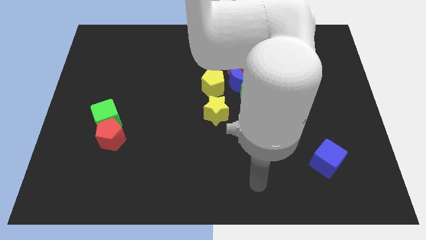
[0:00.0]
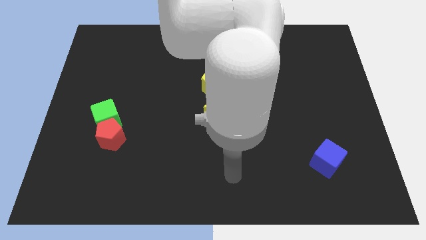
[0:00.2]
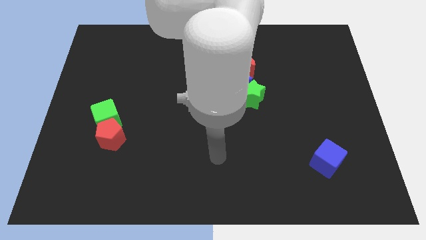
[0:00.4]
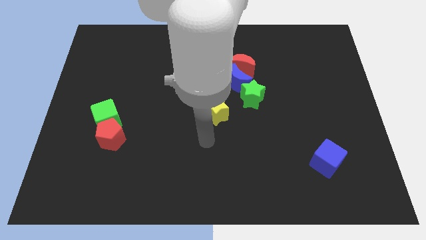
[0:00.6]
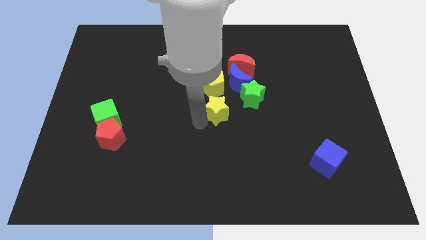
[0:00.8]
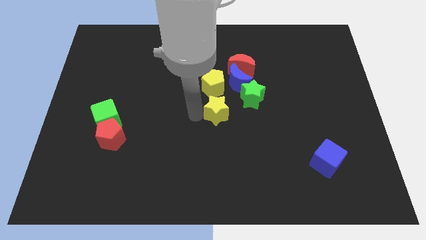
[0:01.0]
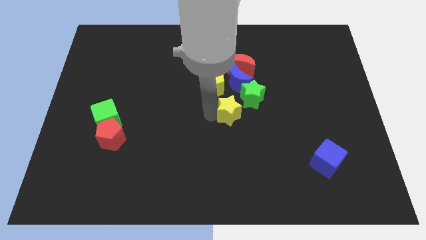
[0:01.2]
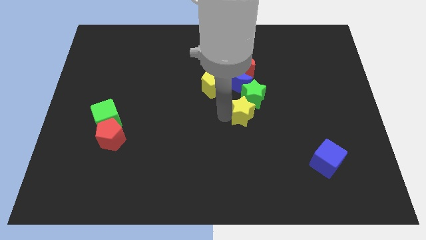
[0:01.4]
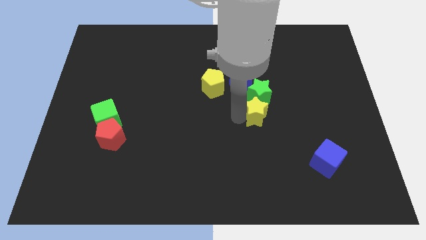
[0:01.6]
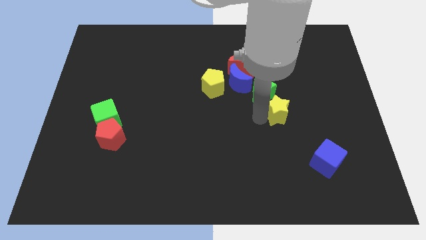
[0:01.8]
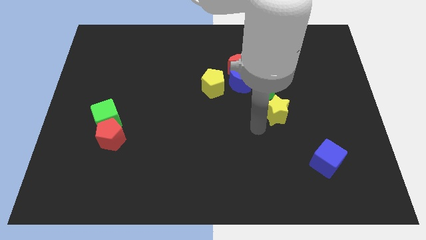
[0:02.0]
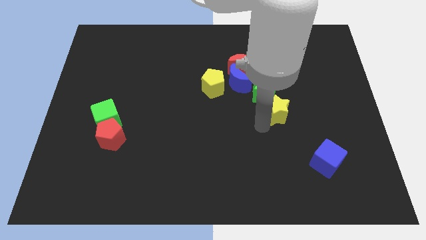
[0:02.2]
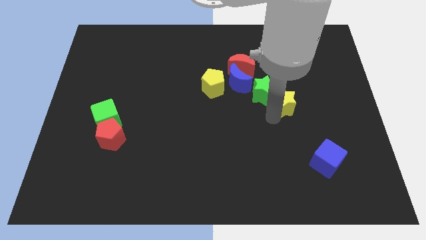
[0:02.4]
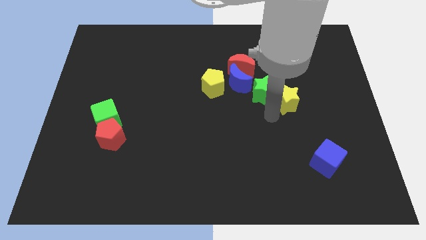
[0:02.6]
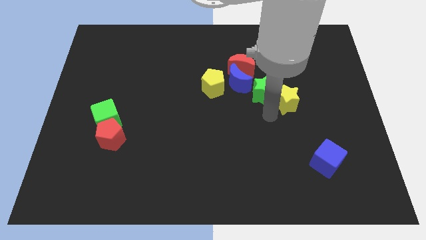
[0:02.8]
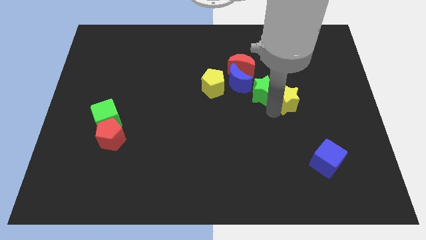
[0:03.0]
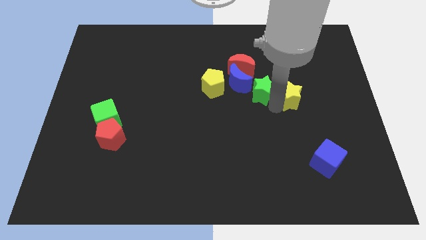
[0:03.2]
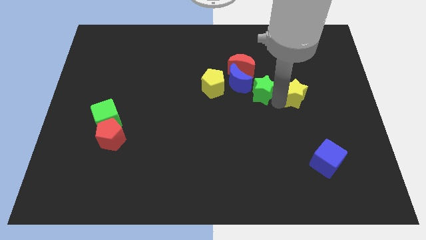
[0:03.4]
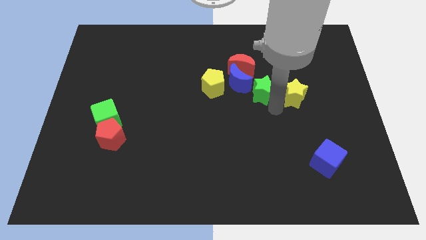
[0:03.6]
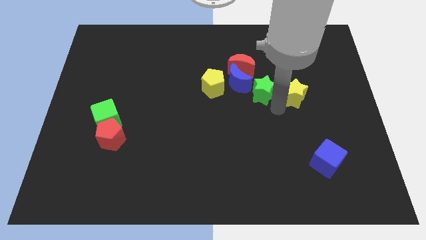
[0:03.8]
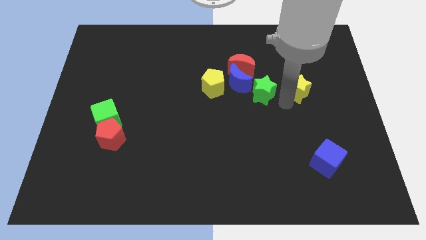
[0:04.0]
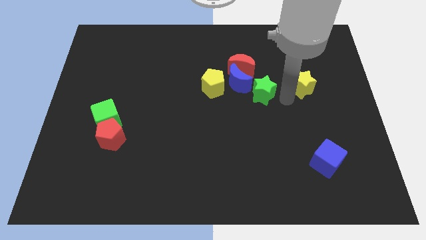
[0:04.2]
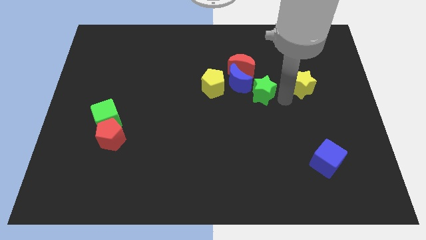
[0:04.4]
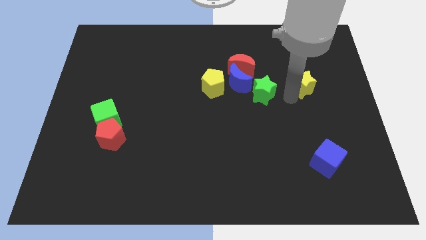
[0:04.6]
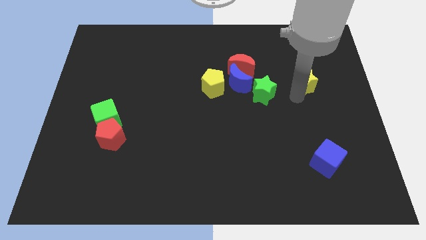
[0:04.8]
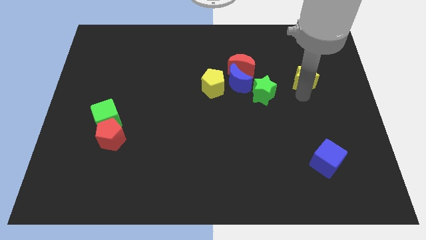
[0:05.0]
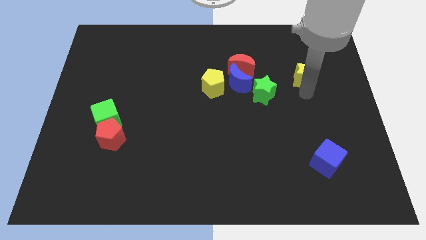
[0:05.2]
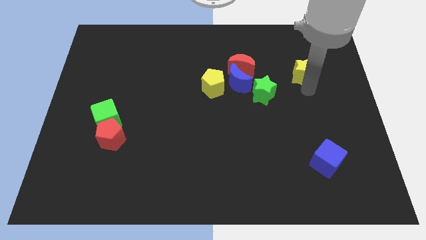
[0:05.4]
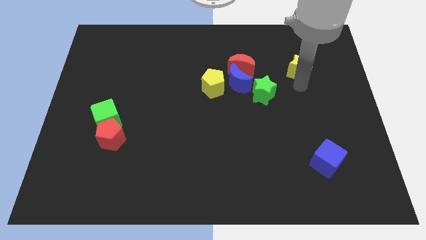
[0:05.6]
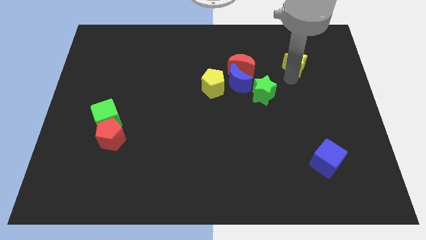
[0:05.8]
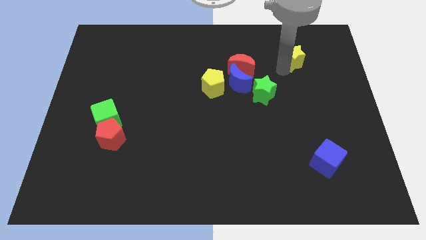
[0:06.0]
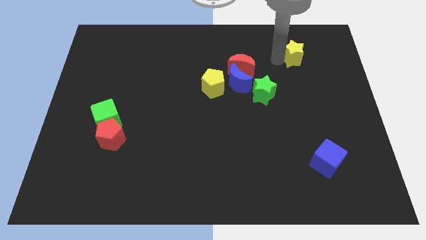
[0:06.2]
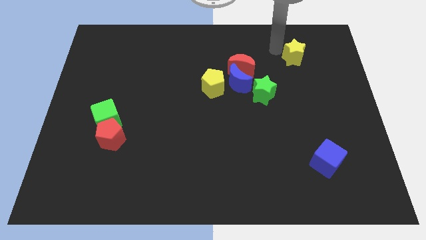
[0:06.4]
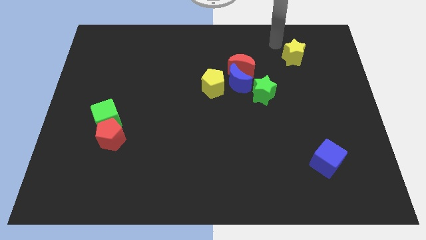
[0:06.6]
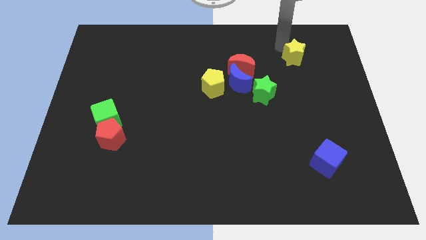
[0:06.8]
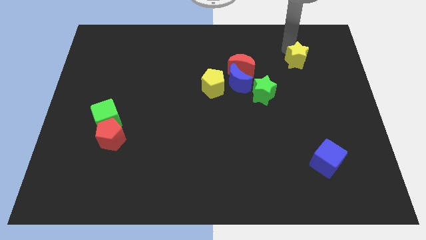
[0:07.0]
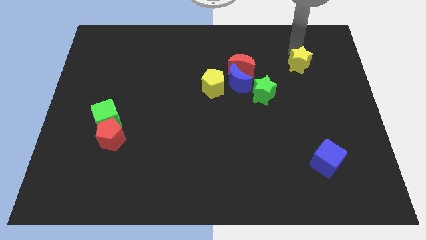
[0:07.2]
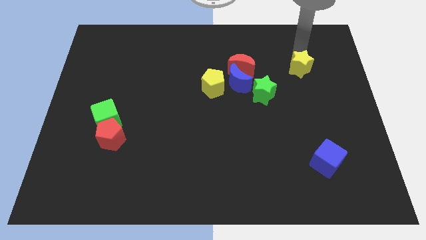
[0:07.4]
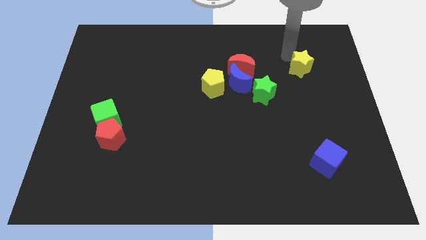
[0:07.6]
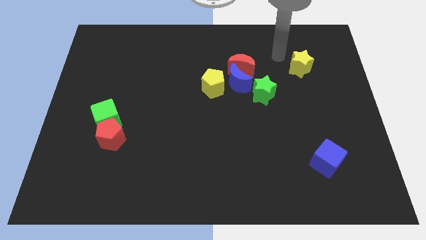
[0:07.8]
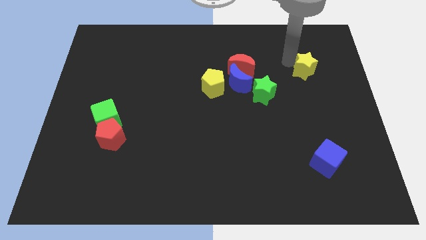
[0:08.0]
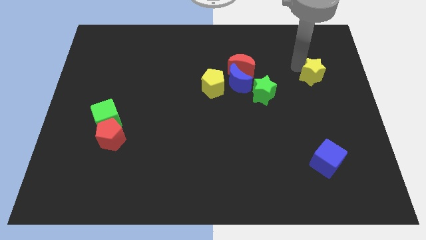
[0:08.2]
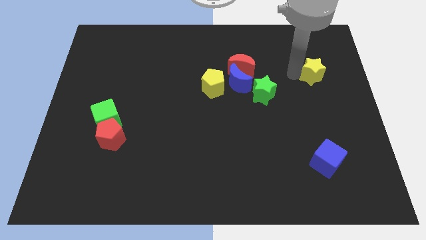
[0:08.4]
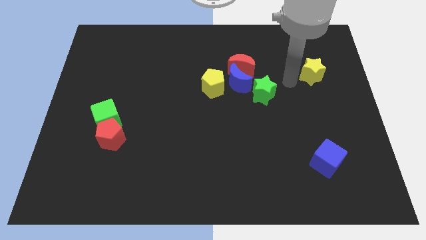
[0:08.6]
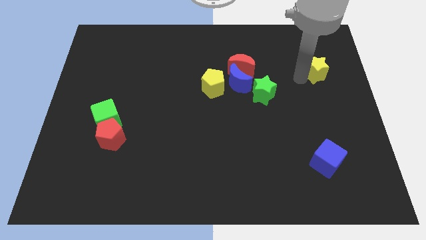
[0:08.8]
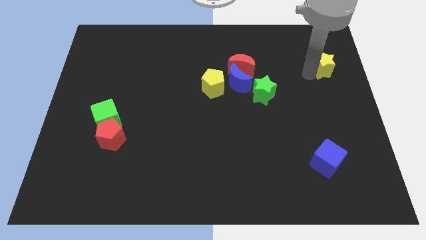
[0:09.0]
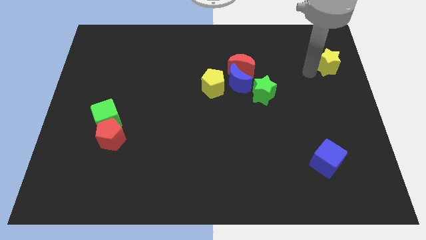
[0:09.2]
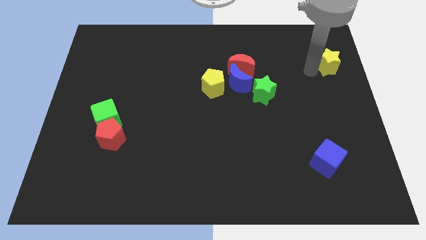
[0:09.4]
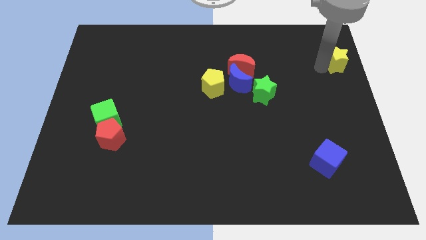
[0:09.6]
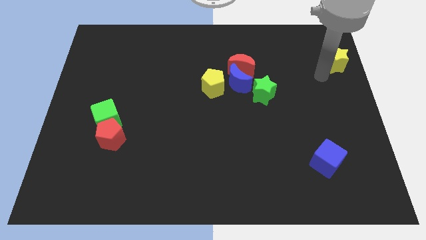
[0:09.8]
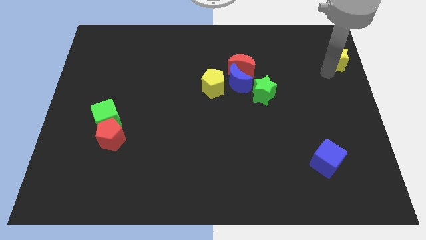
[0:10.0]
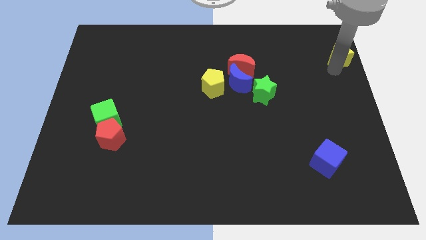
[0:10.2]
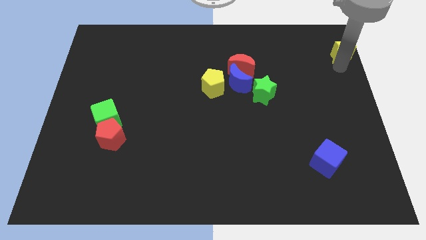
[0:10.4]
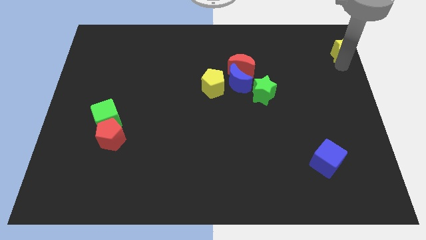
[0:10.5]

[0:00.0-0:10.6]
push the yellow star to the top right
